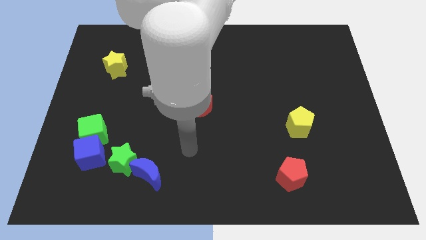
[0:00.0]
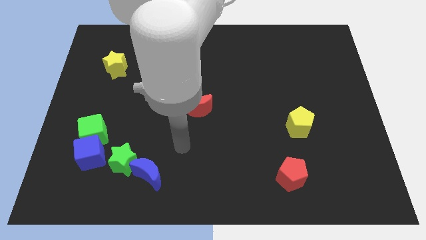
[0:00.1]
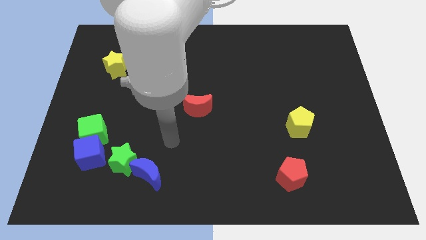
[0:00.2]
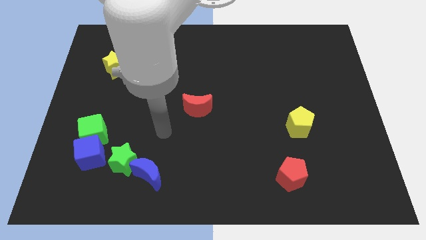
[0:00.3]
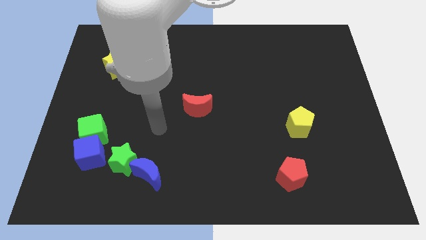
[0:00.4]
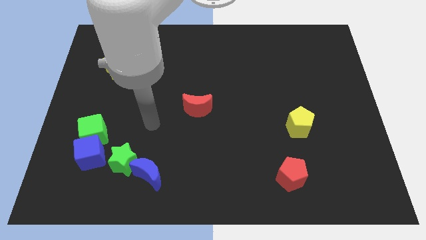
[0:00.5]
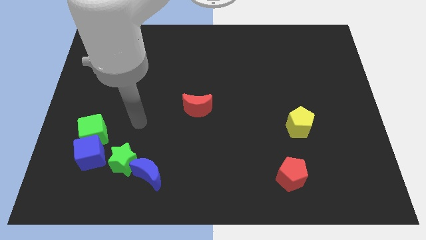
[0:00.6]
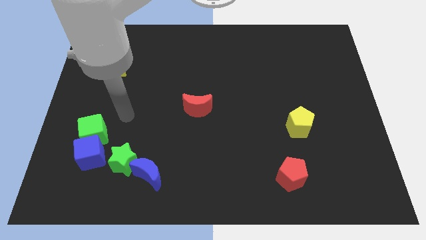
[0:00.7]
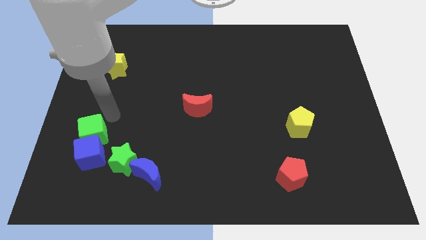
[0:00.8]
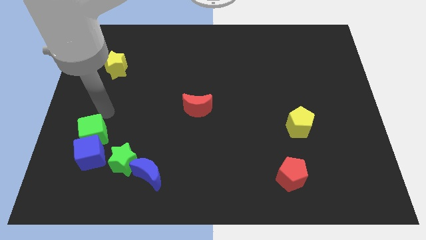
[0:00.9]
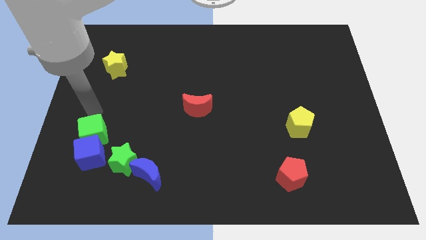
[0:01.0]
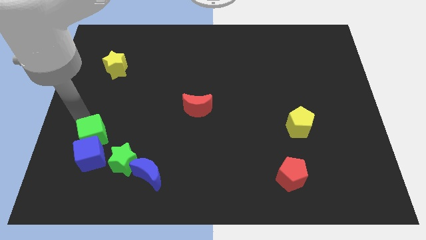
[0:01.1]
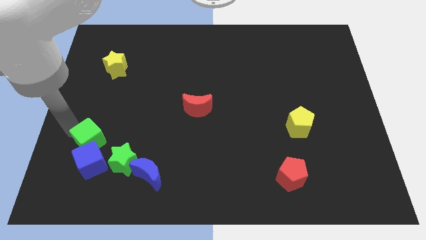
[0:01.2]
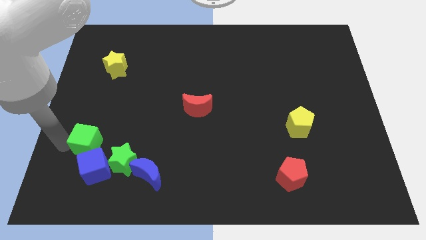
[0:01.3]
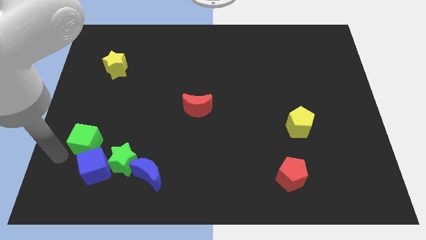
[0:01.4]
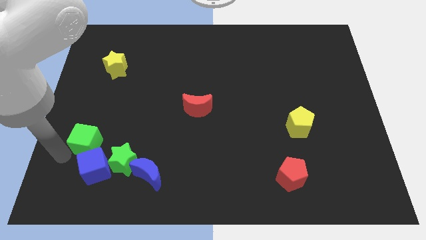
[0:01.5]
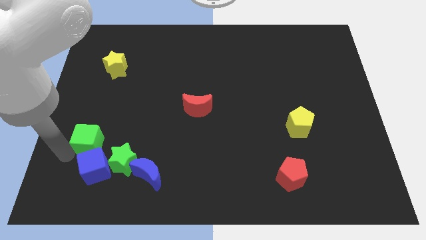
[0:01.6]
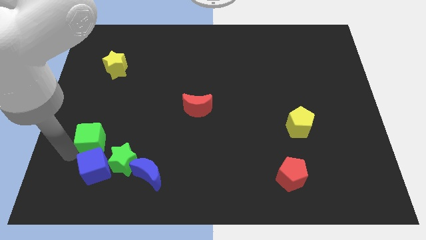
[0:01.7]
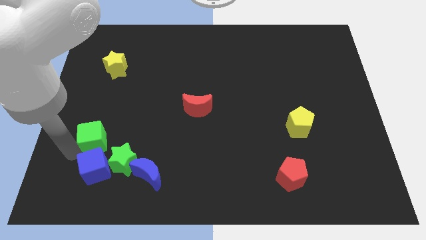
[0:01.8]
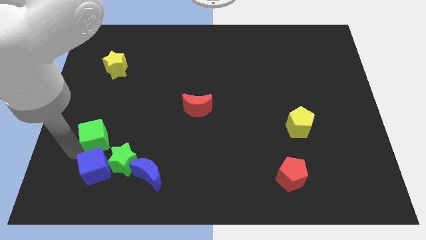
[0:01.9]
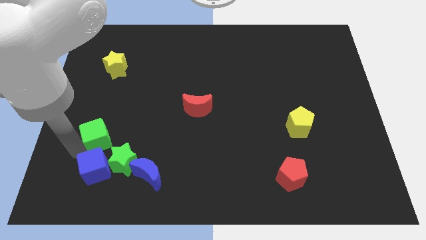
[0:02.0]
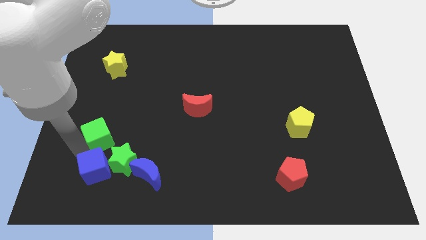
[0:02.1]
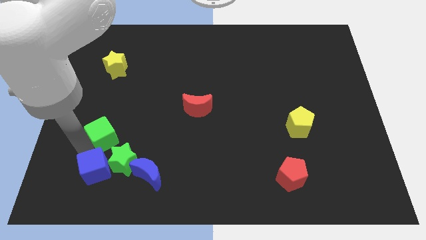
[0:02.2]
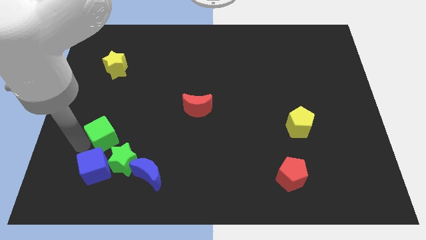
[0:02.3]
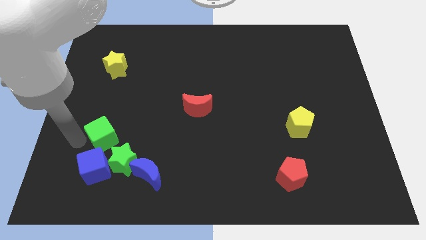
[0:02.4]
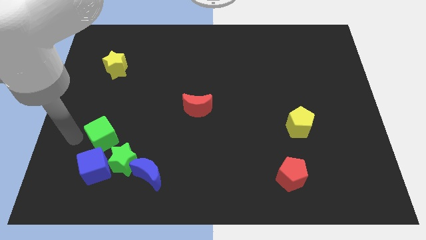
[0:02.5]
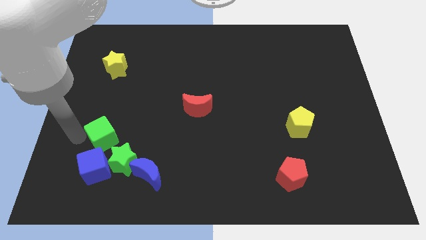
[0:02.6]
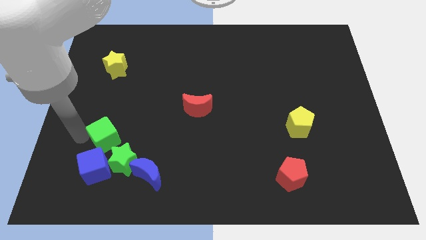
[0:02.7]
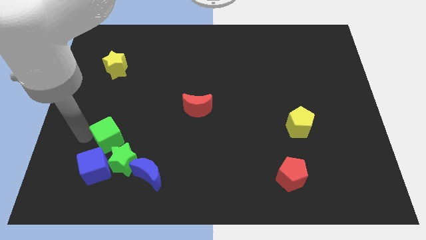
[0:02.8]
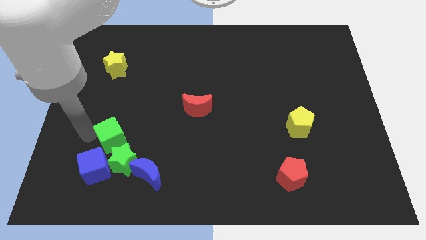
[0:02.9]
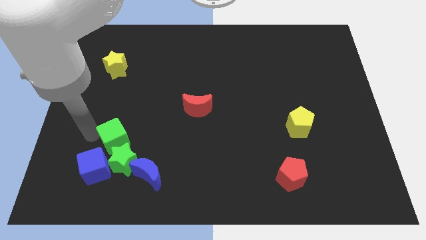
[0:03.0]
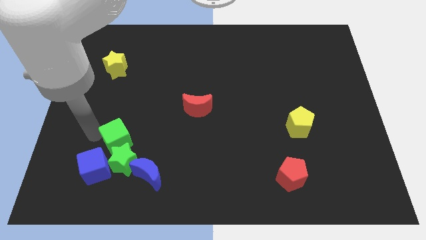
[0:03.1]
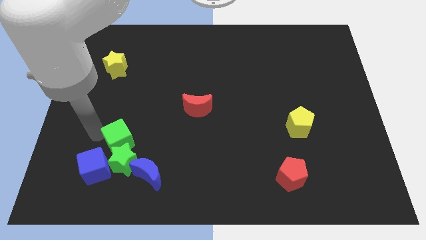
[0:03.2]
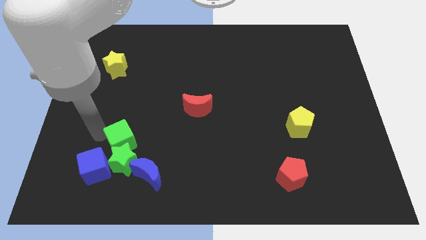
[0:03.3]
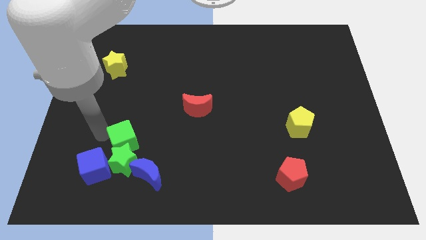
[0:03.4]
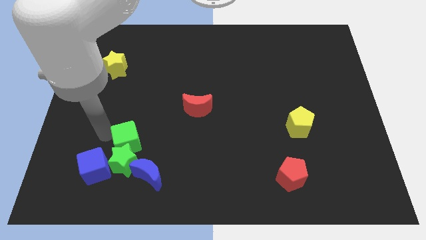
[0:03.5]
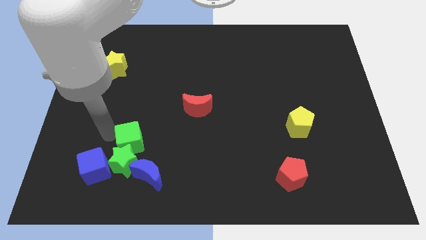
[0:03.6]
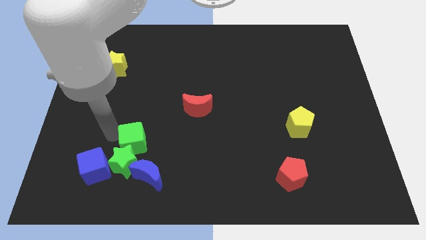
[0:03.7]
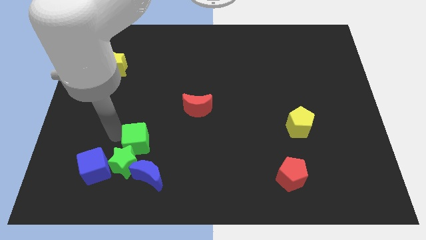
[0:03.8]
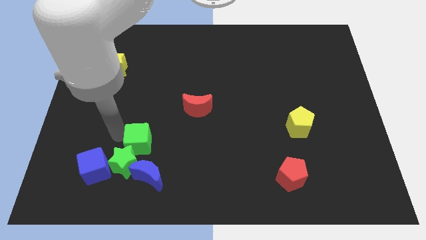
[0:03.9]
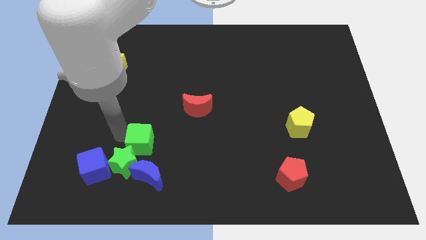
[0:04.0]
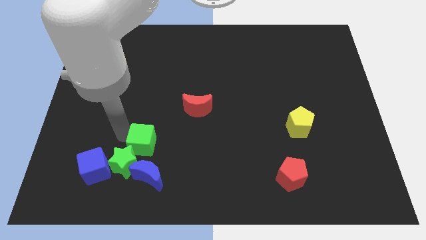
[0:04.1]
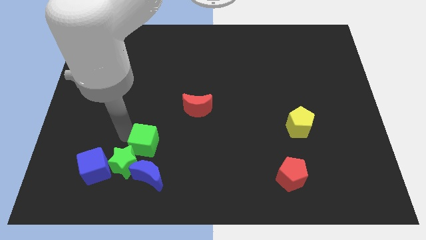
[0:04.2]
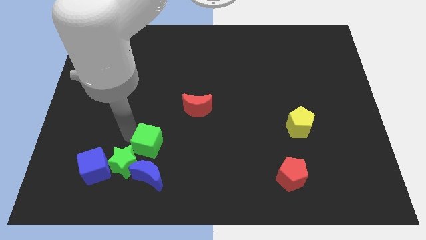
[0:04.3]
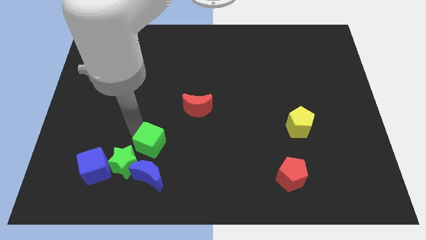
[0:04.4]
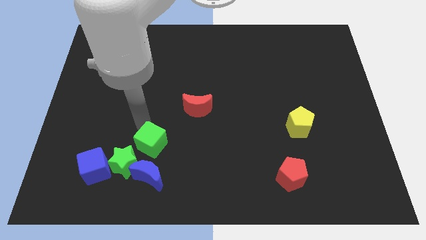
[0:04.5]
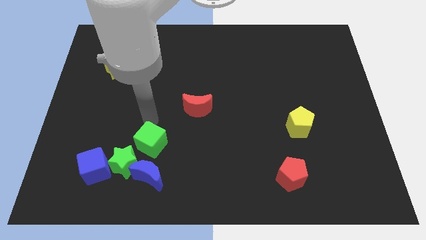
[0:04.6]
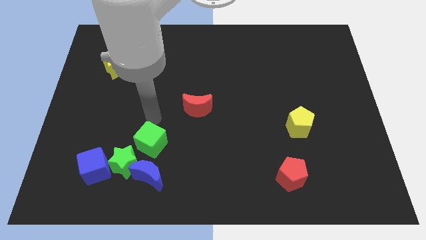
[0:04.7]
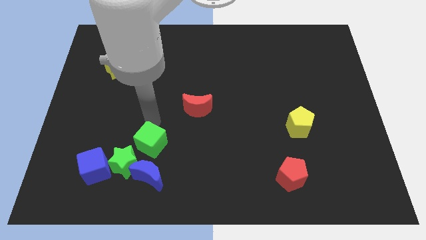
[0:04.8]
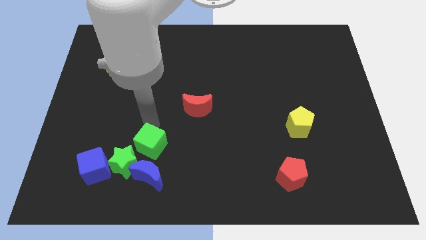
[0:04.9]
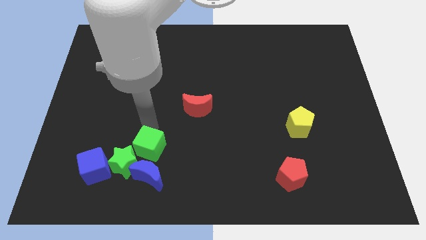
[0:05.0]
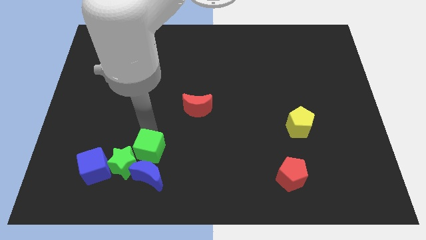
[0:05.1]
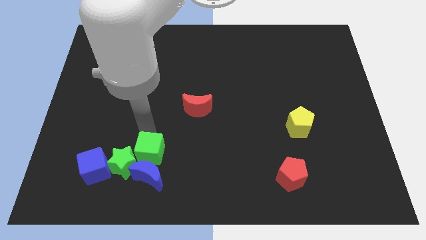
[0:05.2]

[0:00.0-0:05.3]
push the green cube to the blue moon

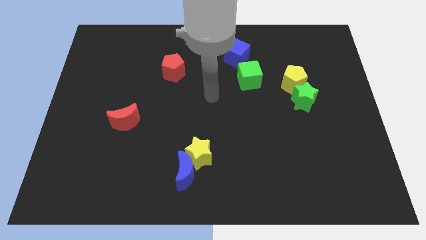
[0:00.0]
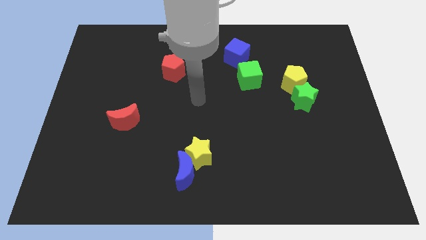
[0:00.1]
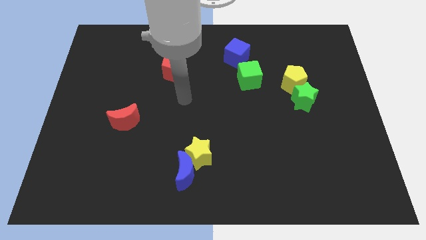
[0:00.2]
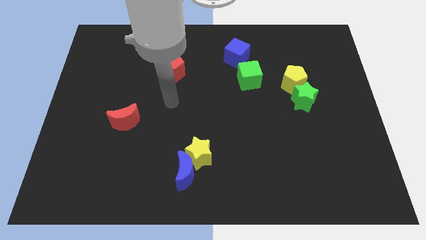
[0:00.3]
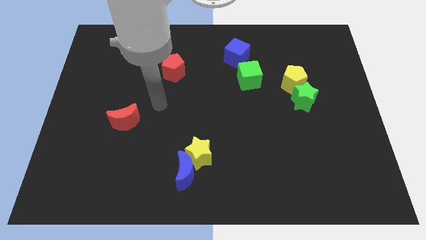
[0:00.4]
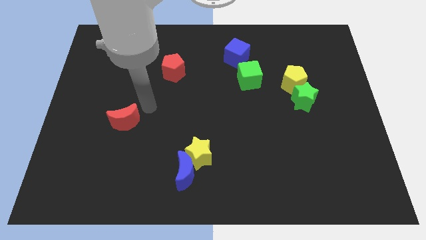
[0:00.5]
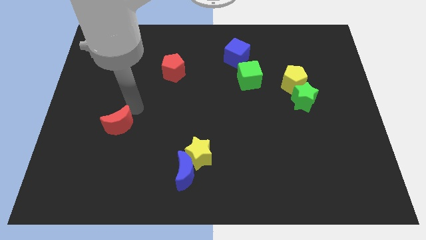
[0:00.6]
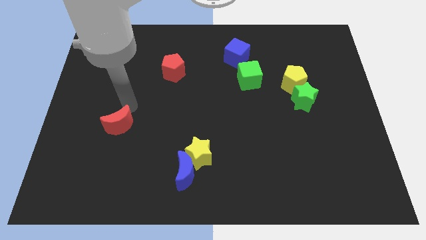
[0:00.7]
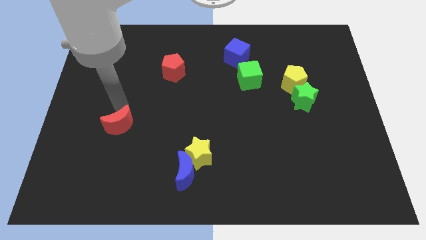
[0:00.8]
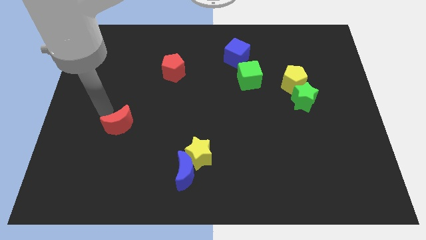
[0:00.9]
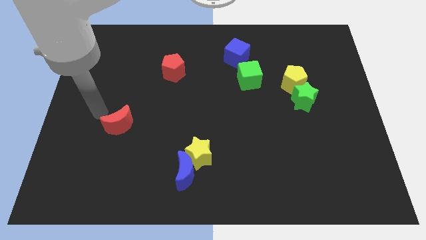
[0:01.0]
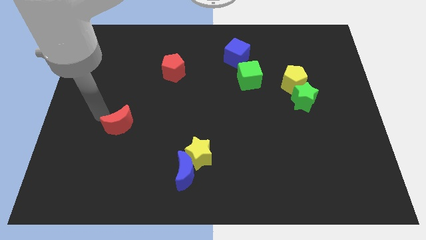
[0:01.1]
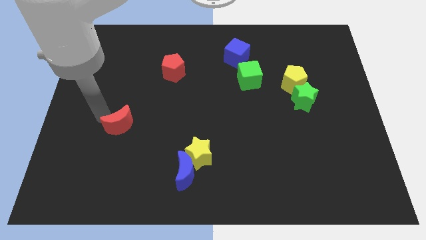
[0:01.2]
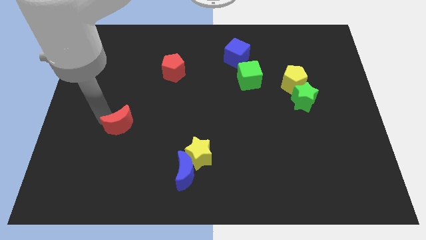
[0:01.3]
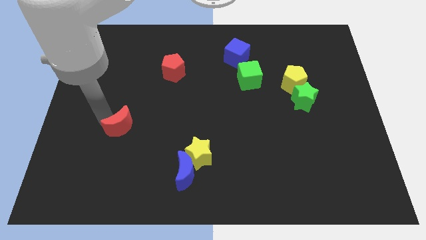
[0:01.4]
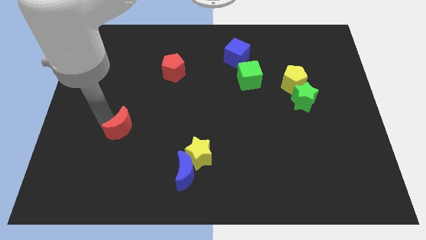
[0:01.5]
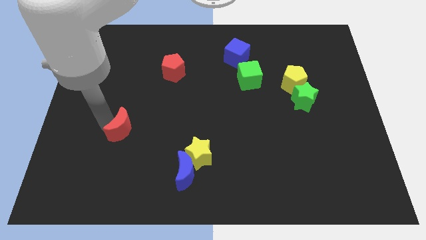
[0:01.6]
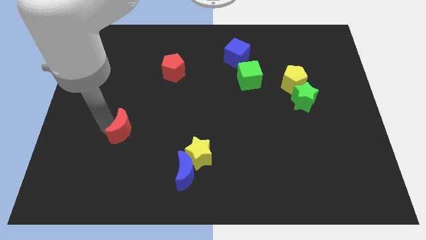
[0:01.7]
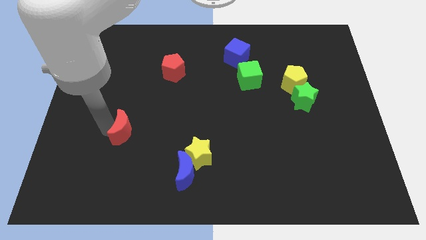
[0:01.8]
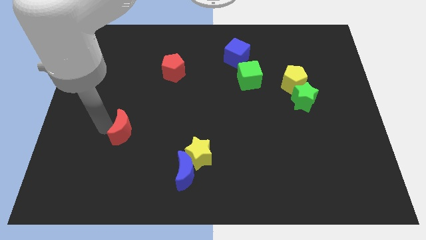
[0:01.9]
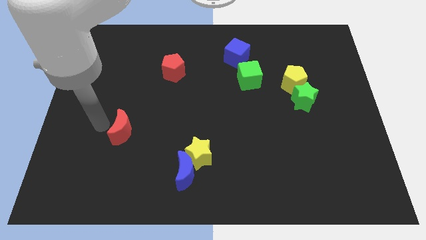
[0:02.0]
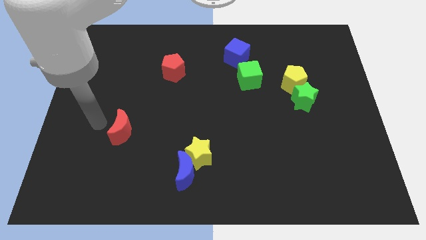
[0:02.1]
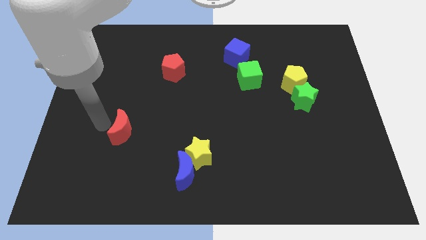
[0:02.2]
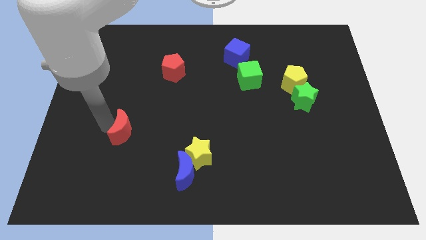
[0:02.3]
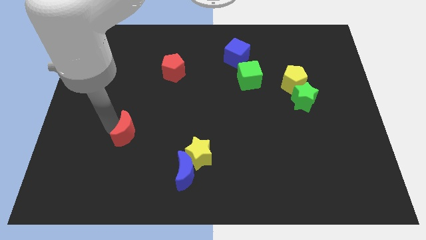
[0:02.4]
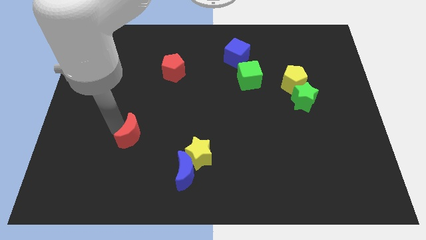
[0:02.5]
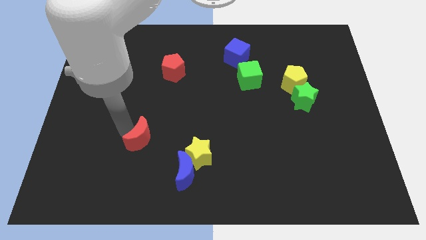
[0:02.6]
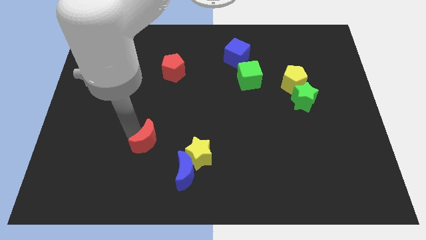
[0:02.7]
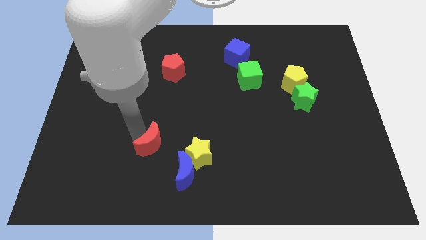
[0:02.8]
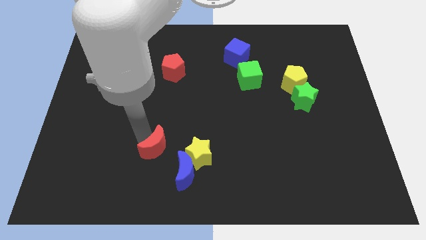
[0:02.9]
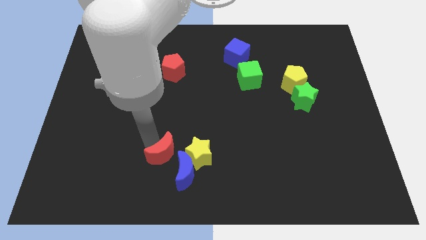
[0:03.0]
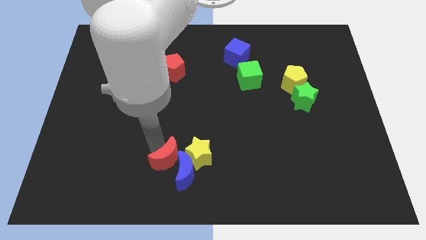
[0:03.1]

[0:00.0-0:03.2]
slide the red moon to the blue moon
